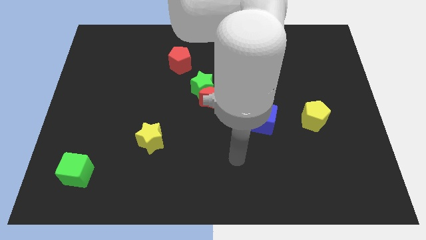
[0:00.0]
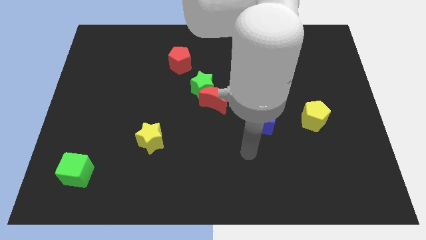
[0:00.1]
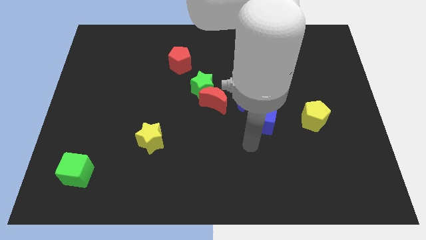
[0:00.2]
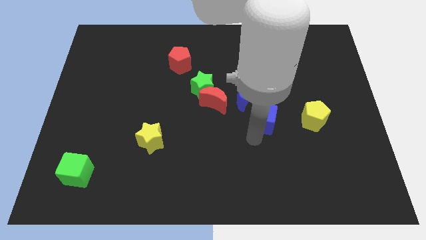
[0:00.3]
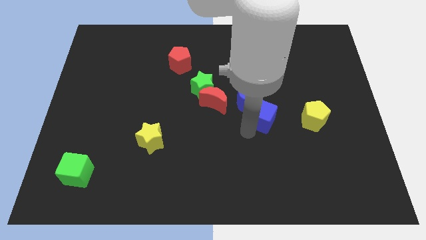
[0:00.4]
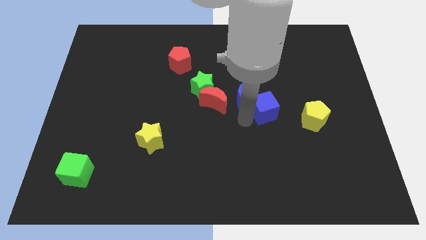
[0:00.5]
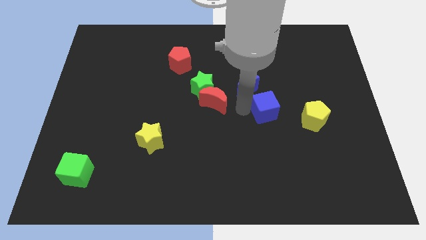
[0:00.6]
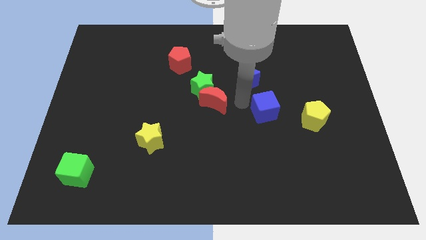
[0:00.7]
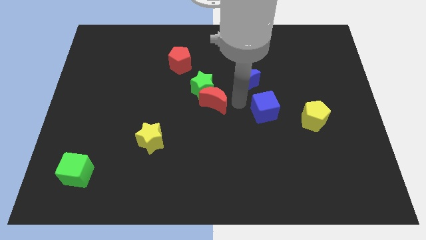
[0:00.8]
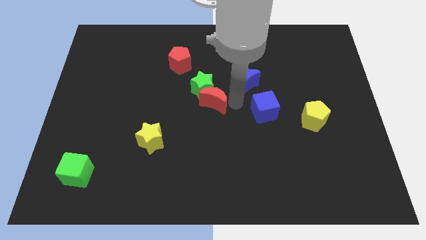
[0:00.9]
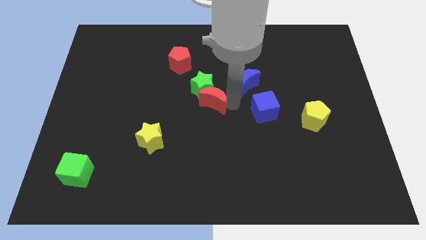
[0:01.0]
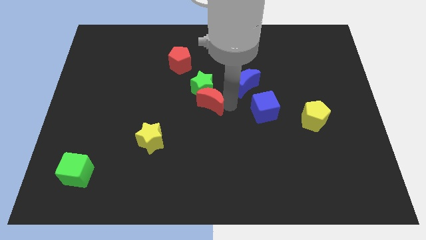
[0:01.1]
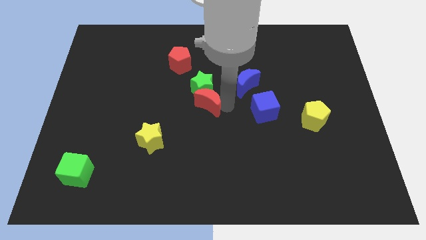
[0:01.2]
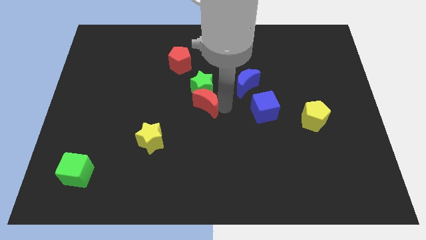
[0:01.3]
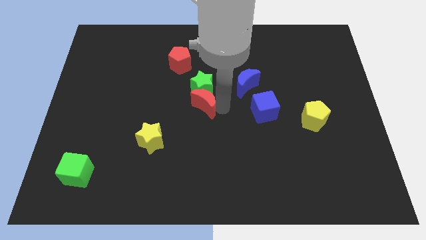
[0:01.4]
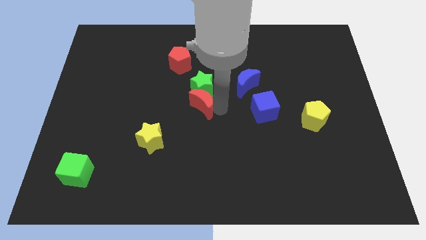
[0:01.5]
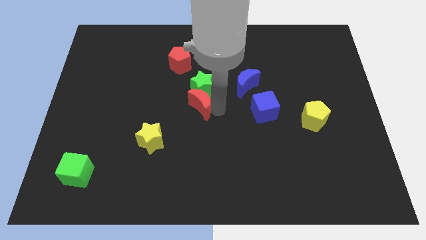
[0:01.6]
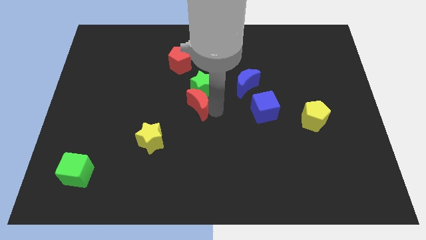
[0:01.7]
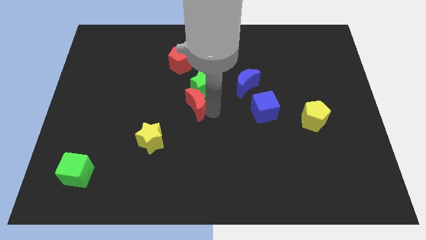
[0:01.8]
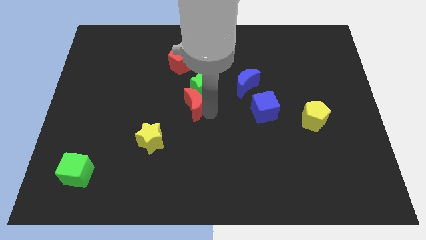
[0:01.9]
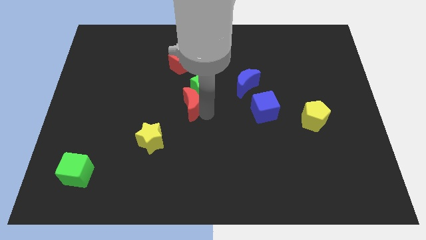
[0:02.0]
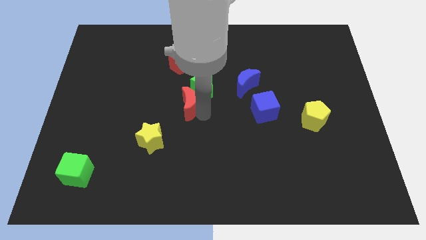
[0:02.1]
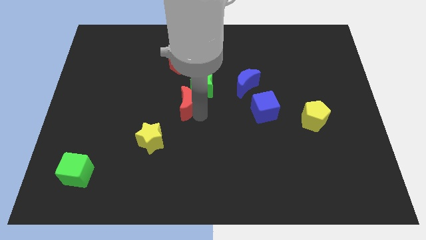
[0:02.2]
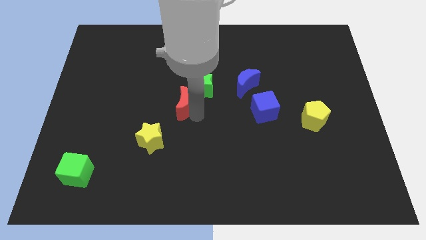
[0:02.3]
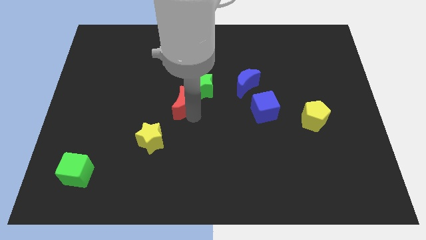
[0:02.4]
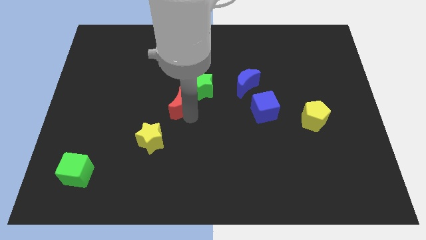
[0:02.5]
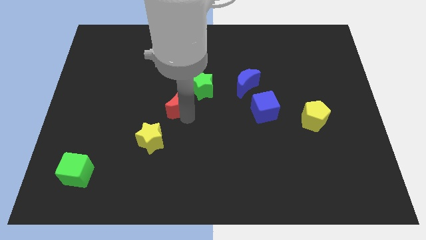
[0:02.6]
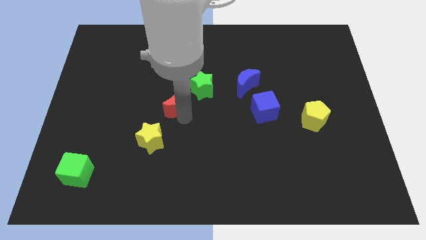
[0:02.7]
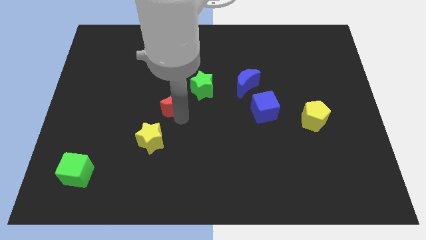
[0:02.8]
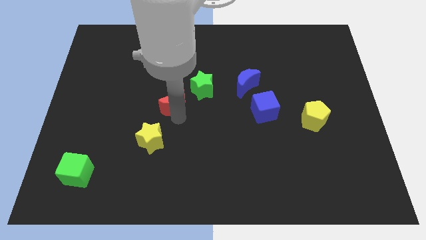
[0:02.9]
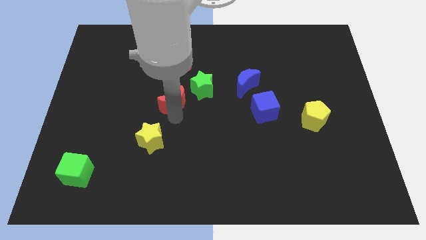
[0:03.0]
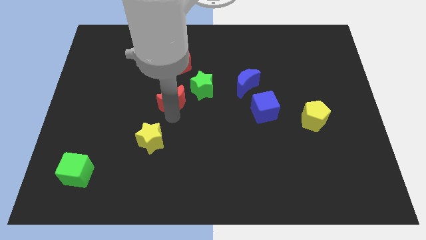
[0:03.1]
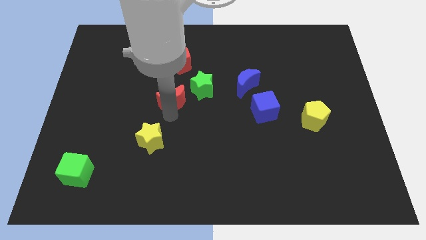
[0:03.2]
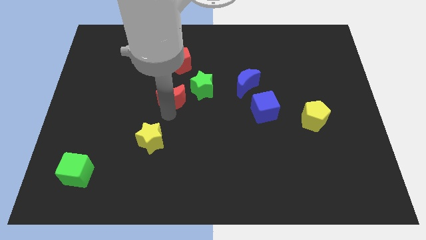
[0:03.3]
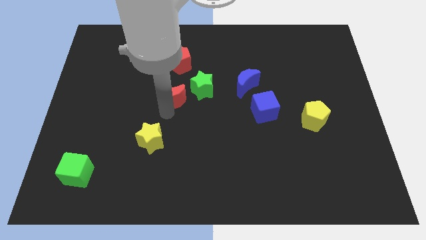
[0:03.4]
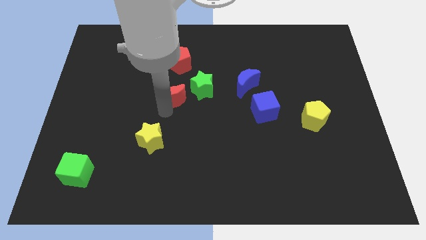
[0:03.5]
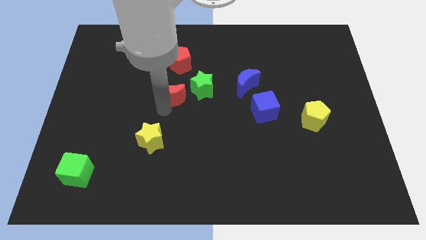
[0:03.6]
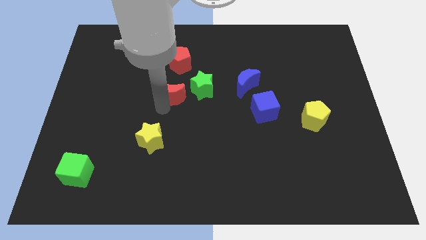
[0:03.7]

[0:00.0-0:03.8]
move the red moon upwards and to the left somewhat

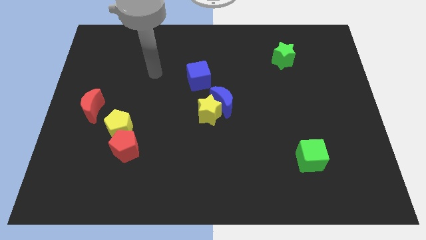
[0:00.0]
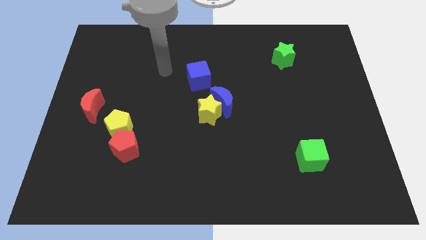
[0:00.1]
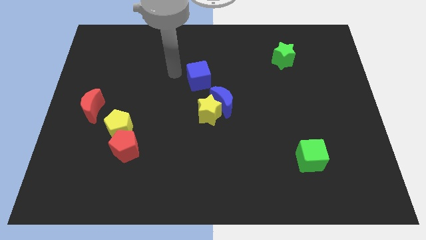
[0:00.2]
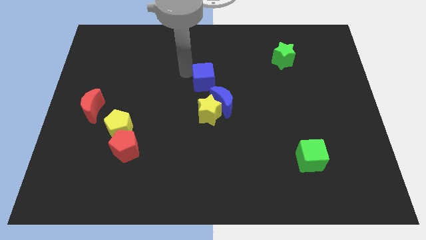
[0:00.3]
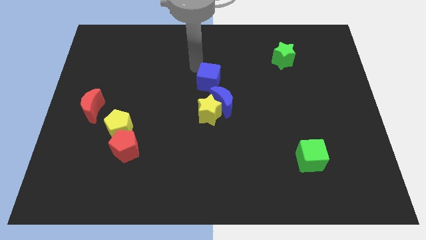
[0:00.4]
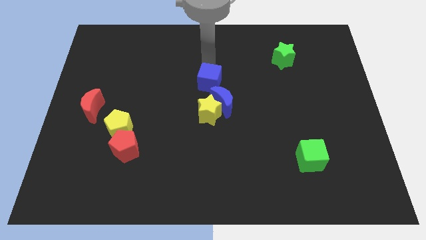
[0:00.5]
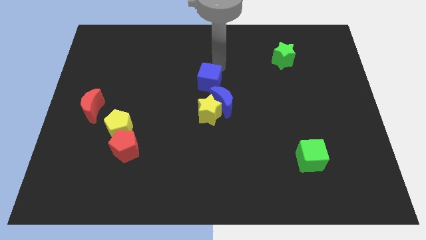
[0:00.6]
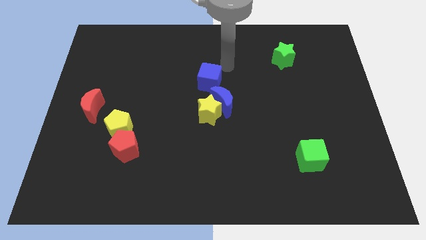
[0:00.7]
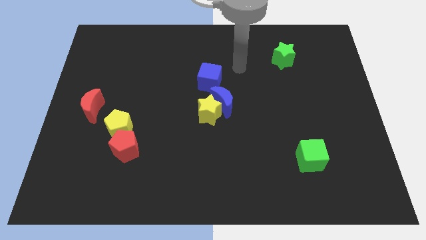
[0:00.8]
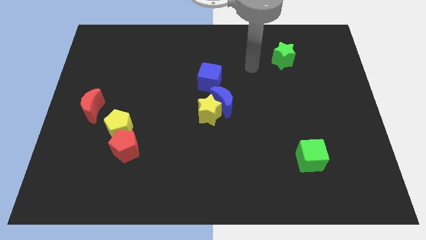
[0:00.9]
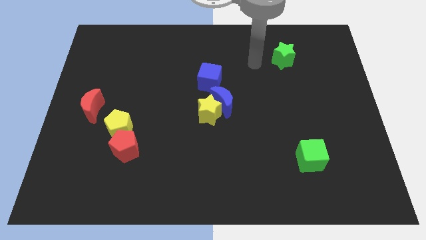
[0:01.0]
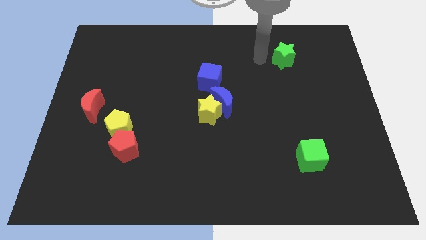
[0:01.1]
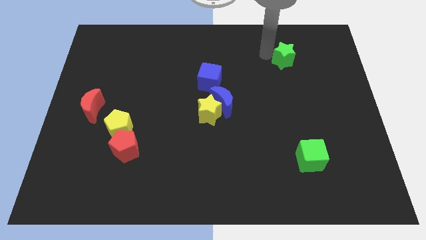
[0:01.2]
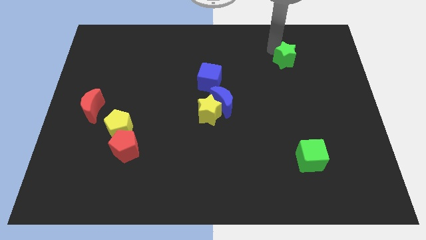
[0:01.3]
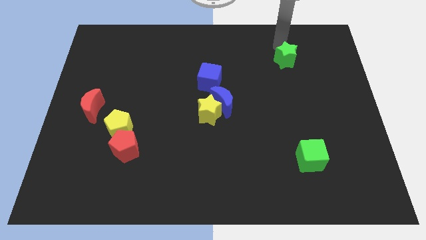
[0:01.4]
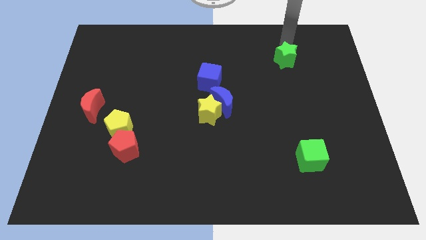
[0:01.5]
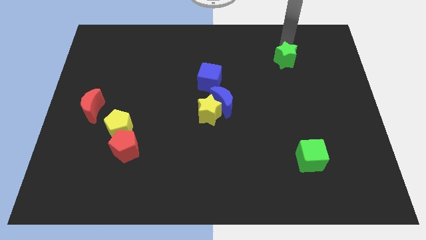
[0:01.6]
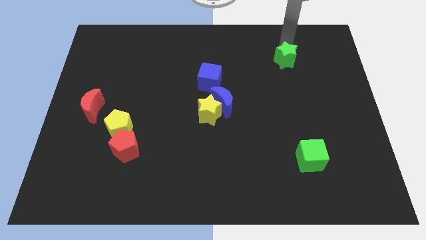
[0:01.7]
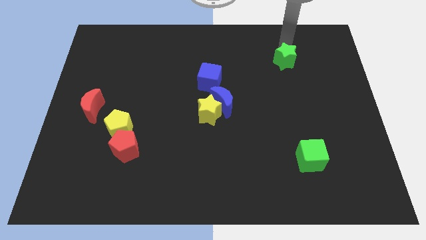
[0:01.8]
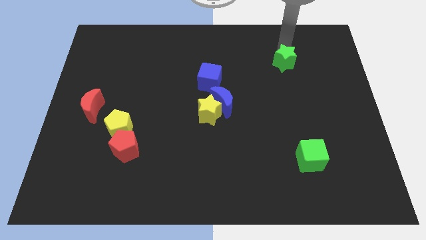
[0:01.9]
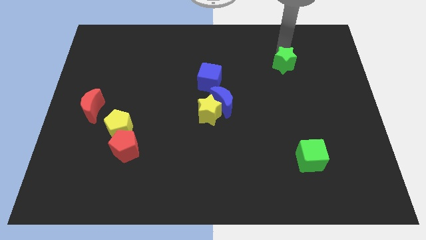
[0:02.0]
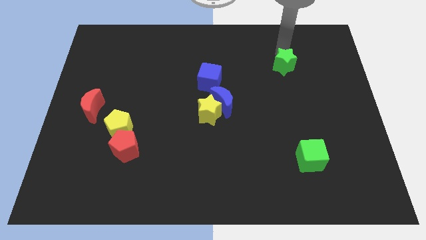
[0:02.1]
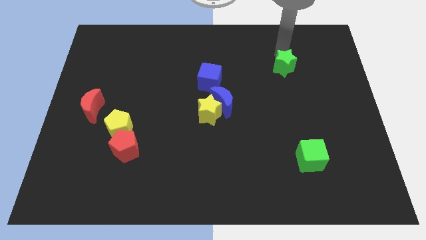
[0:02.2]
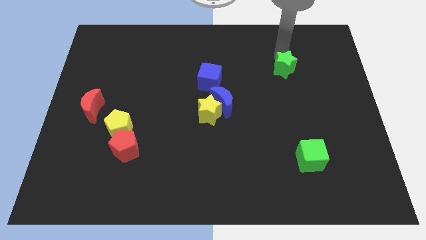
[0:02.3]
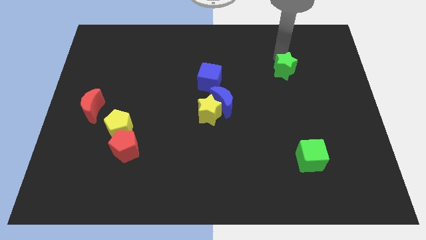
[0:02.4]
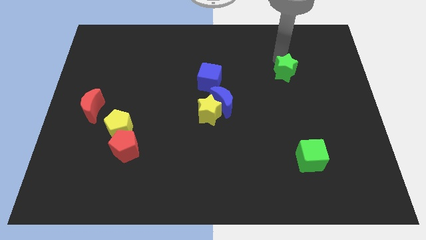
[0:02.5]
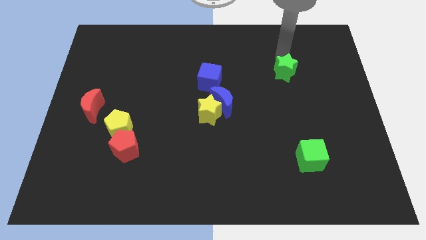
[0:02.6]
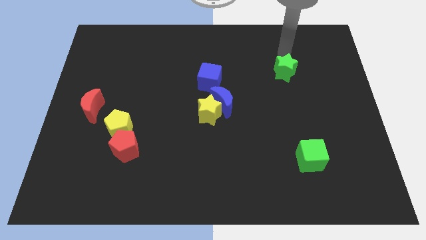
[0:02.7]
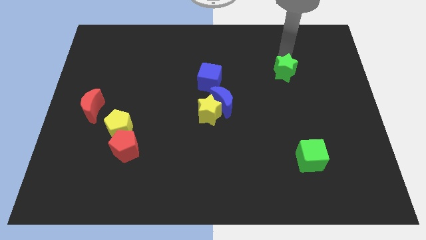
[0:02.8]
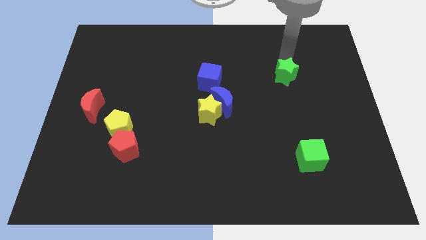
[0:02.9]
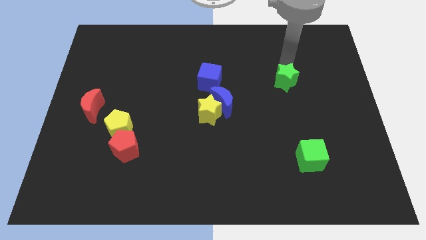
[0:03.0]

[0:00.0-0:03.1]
slide the green star a little bit downwards

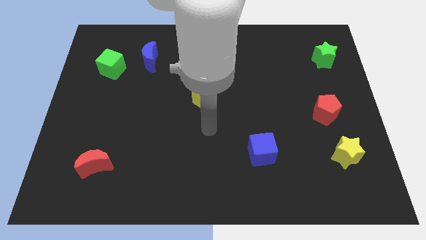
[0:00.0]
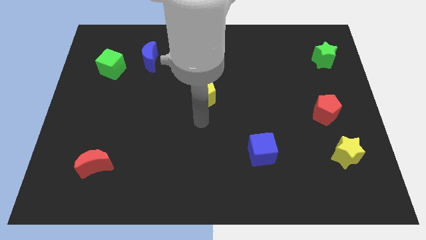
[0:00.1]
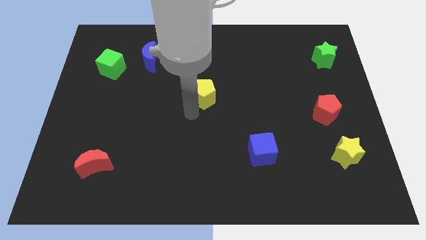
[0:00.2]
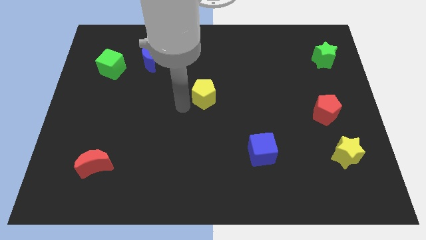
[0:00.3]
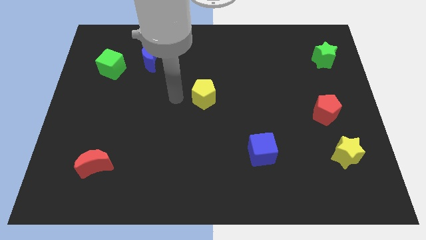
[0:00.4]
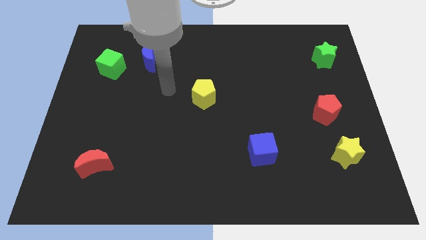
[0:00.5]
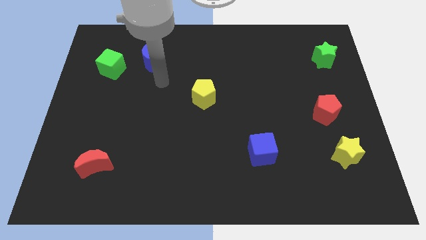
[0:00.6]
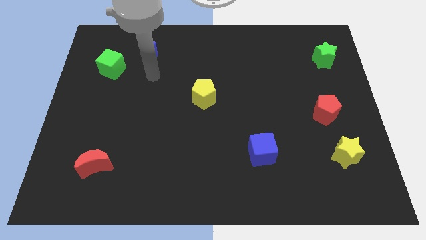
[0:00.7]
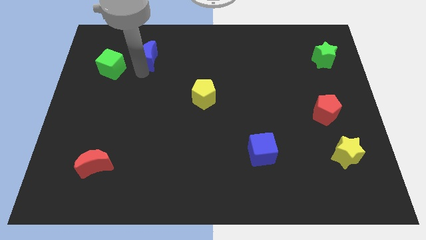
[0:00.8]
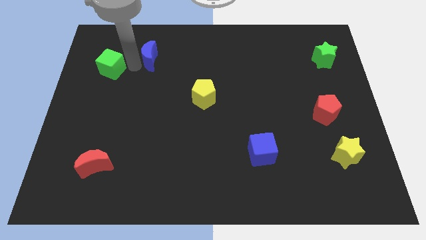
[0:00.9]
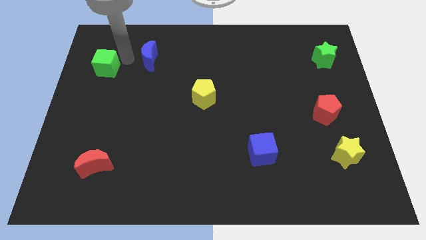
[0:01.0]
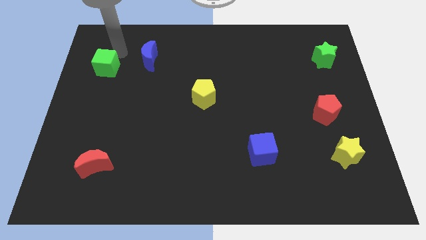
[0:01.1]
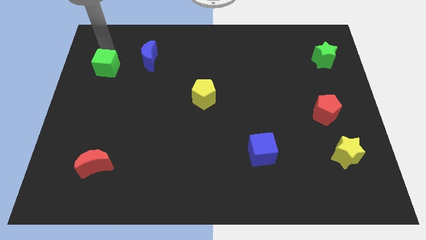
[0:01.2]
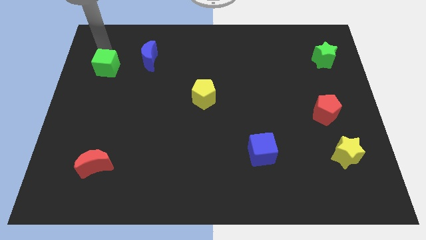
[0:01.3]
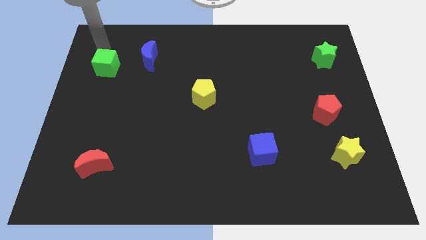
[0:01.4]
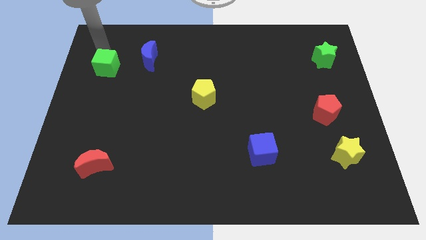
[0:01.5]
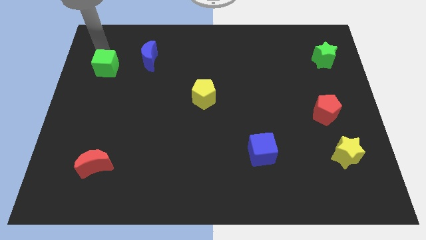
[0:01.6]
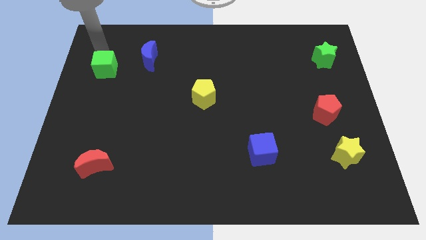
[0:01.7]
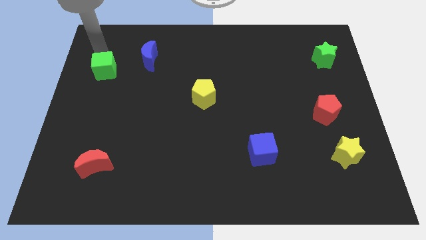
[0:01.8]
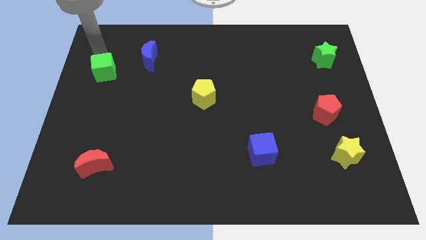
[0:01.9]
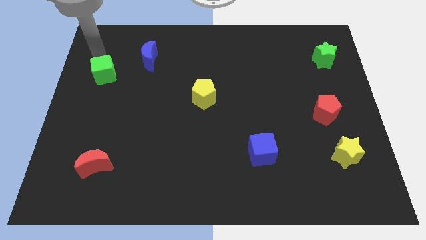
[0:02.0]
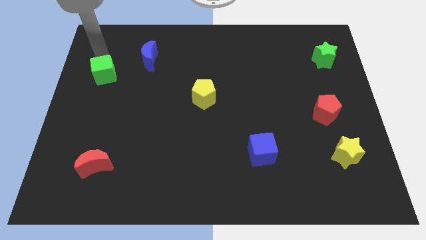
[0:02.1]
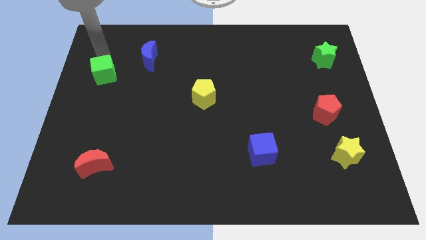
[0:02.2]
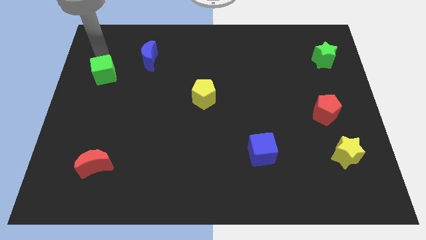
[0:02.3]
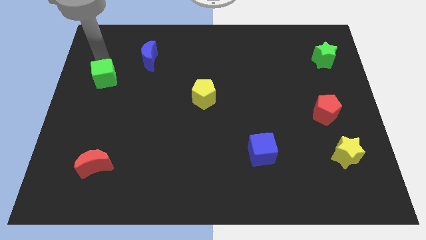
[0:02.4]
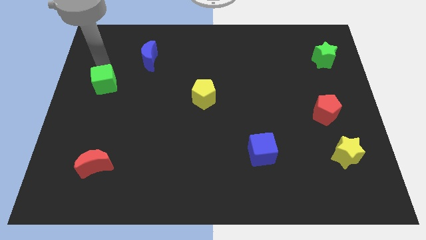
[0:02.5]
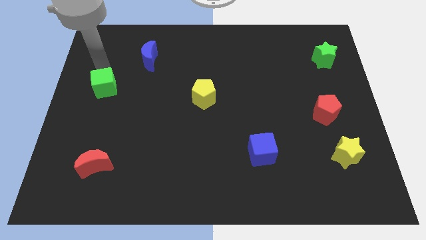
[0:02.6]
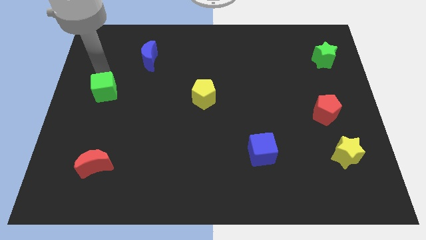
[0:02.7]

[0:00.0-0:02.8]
move the green cube a little down
